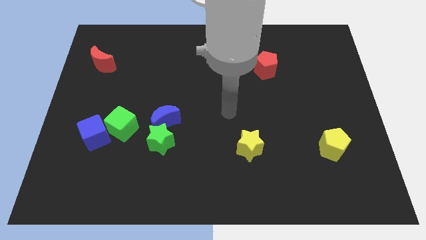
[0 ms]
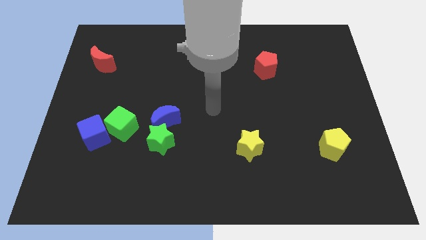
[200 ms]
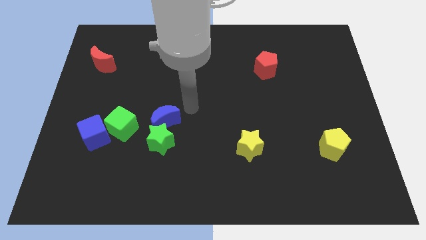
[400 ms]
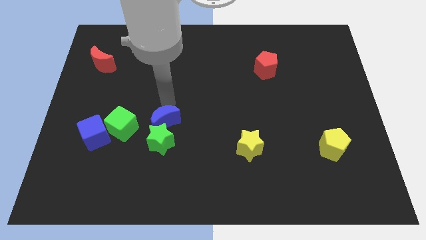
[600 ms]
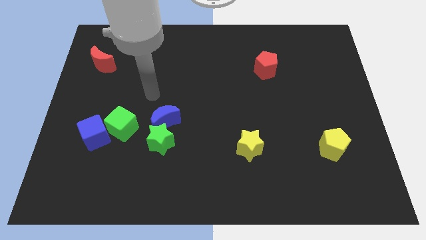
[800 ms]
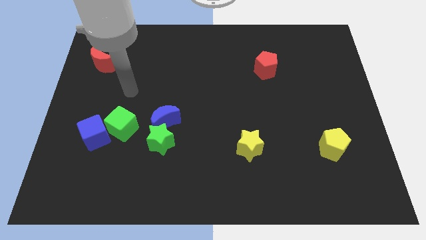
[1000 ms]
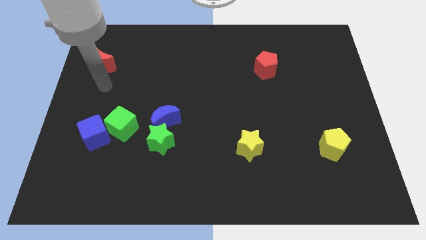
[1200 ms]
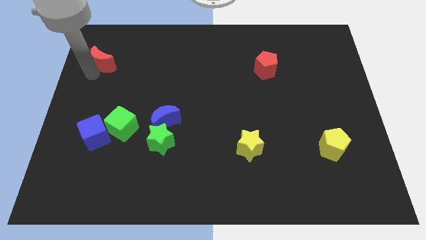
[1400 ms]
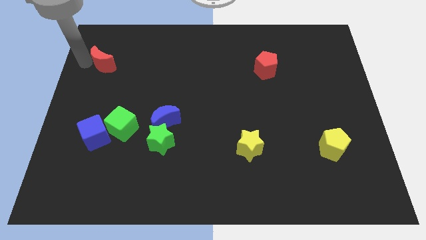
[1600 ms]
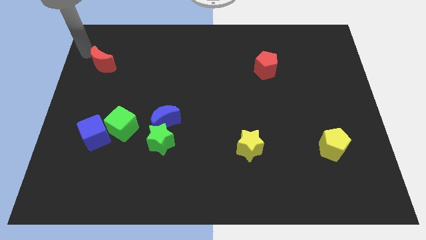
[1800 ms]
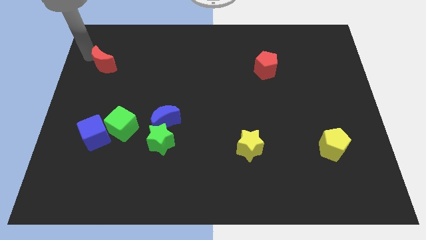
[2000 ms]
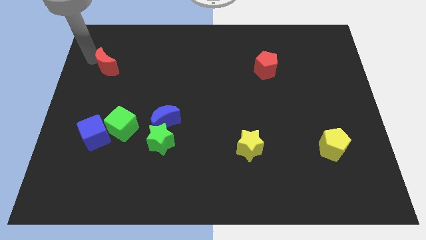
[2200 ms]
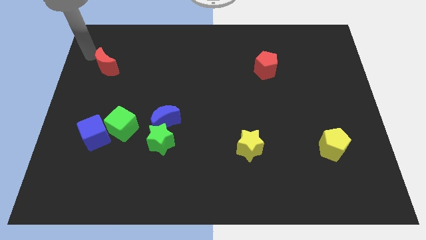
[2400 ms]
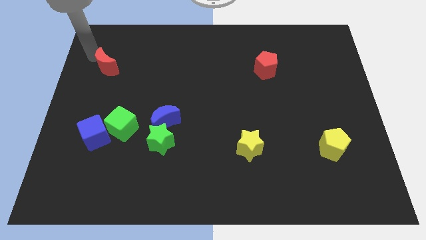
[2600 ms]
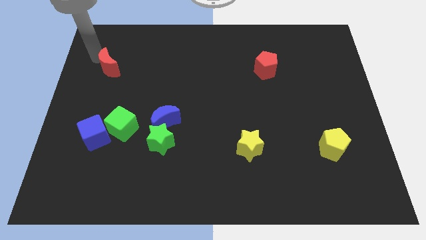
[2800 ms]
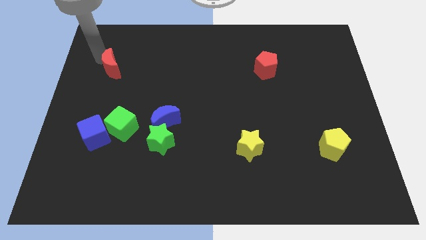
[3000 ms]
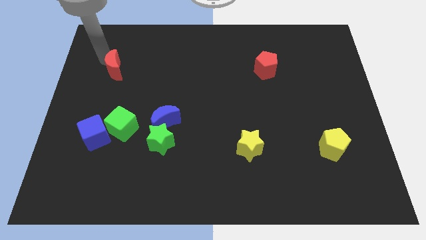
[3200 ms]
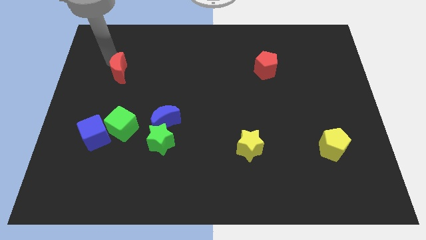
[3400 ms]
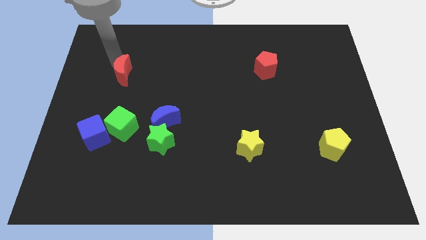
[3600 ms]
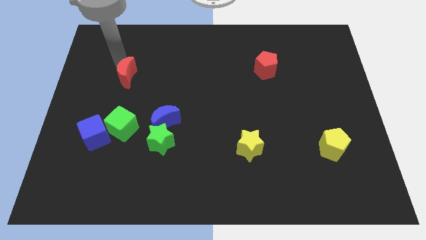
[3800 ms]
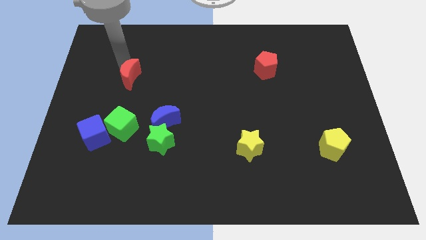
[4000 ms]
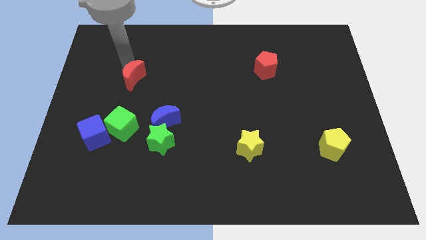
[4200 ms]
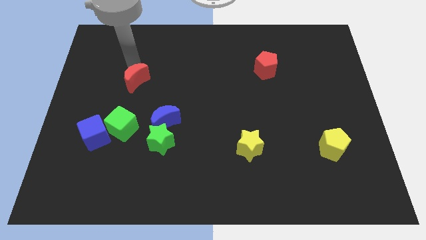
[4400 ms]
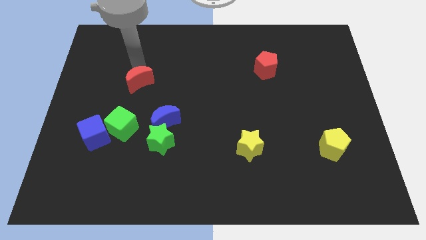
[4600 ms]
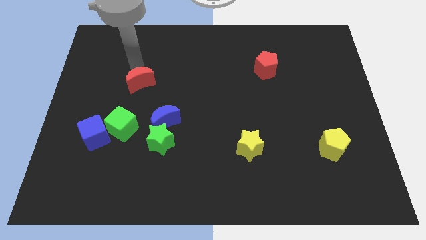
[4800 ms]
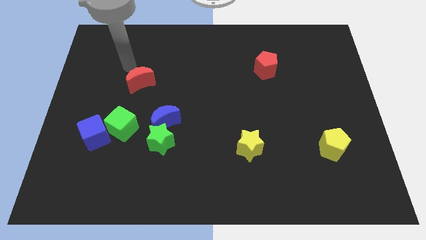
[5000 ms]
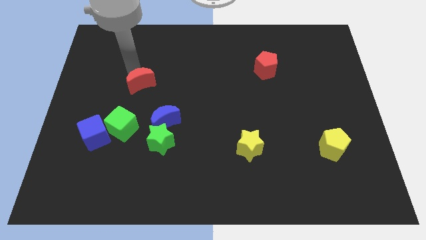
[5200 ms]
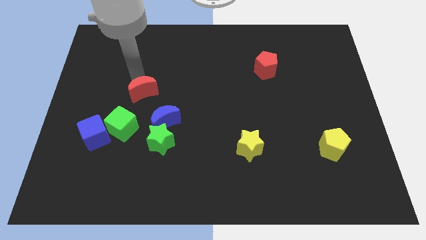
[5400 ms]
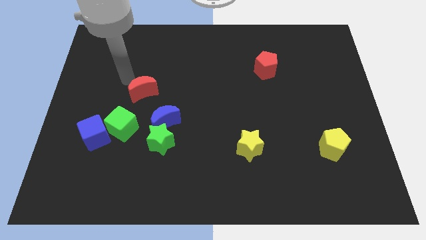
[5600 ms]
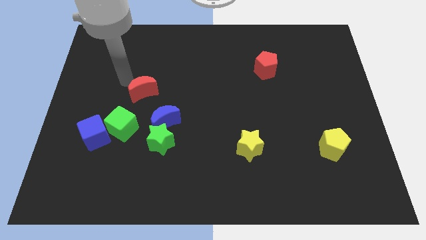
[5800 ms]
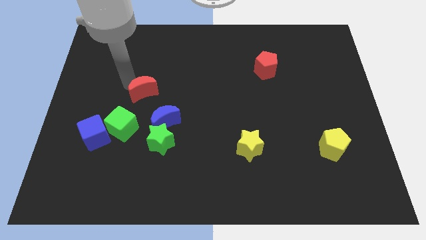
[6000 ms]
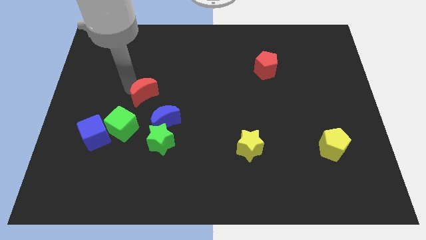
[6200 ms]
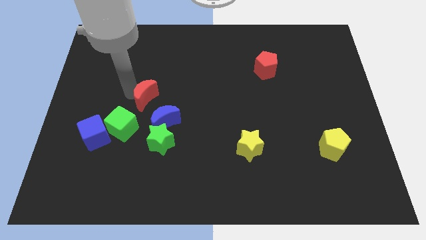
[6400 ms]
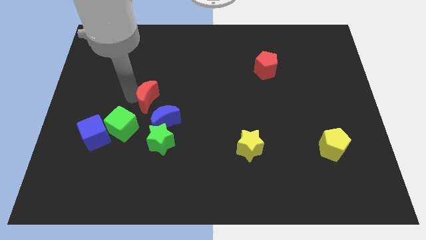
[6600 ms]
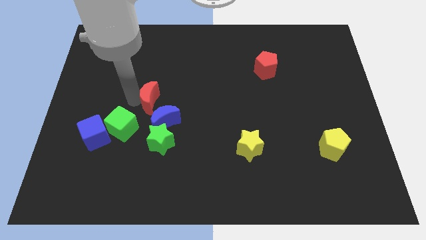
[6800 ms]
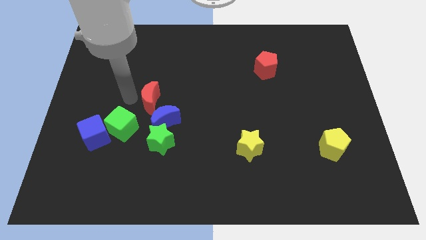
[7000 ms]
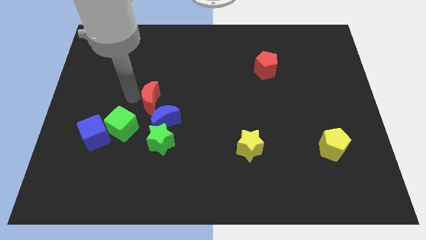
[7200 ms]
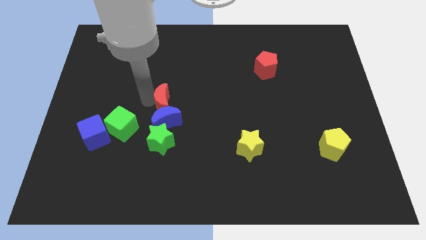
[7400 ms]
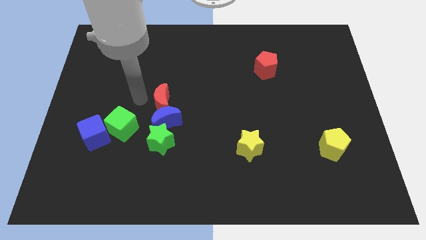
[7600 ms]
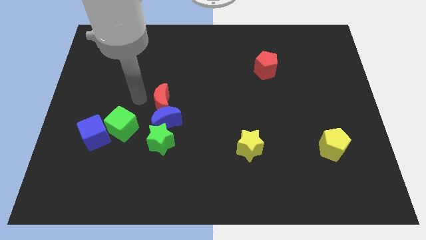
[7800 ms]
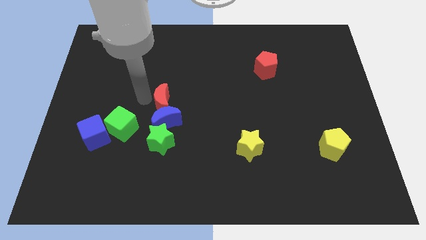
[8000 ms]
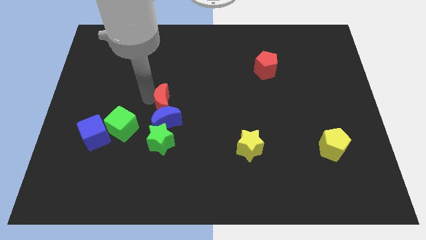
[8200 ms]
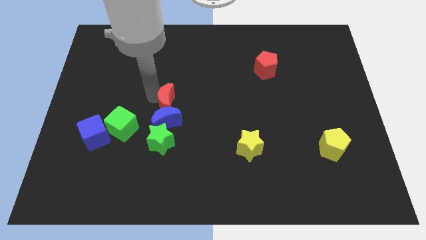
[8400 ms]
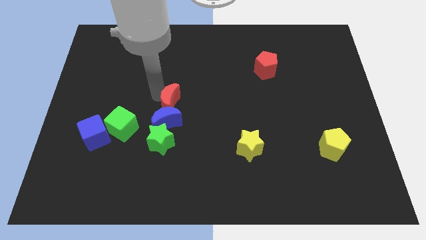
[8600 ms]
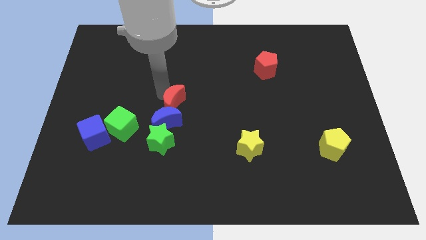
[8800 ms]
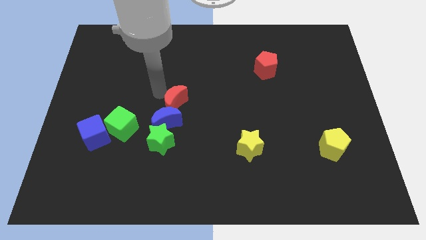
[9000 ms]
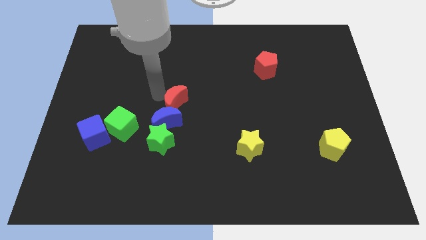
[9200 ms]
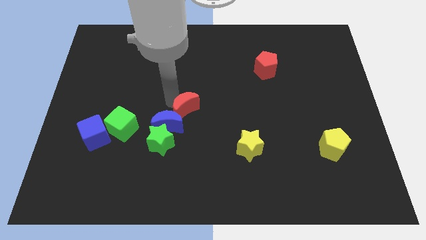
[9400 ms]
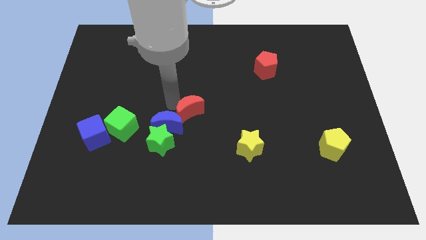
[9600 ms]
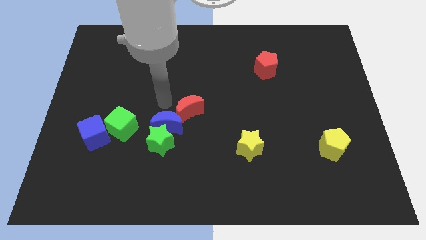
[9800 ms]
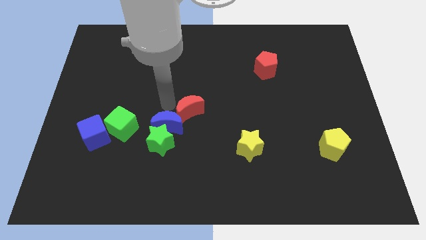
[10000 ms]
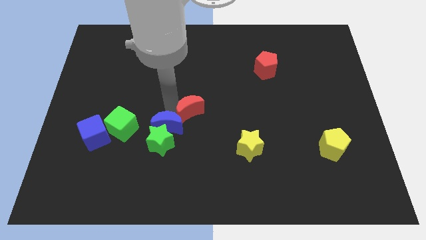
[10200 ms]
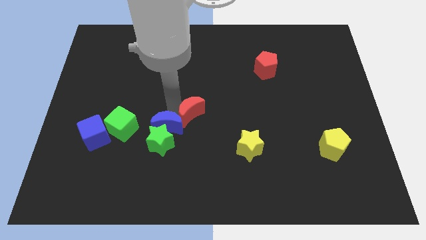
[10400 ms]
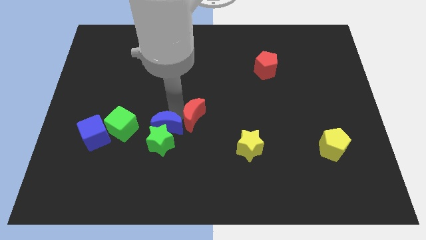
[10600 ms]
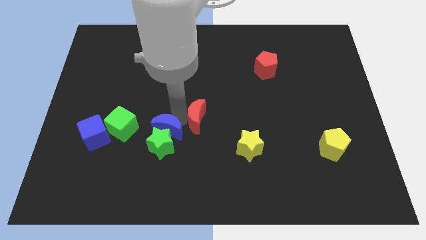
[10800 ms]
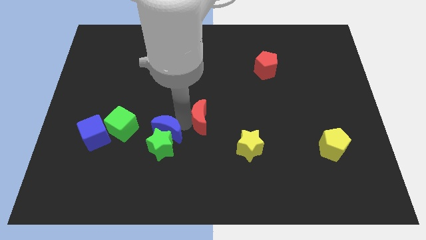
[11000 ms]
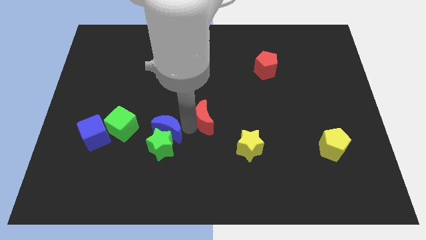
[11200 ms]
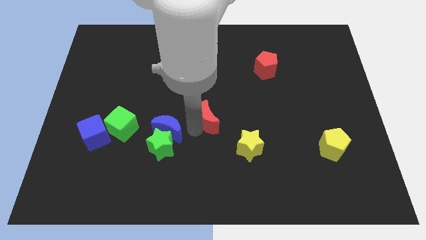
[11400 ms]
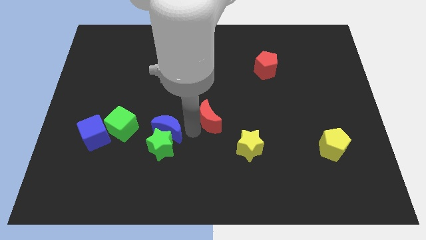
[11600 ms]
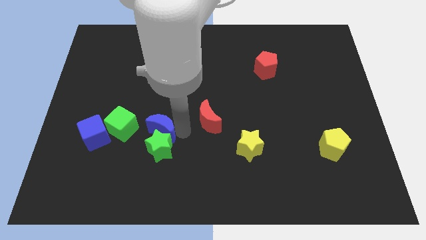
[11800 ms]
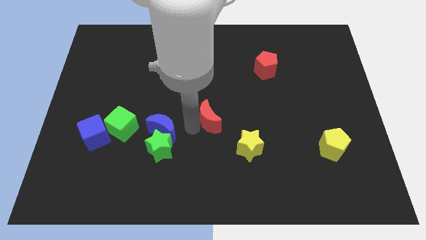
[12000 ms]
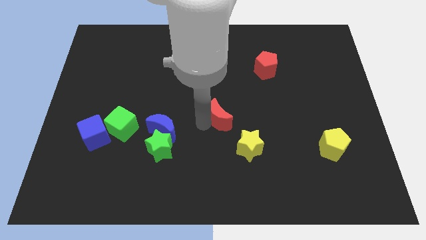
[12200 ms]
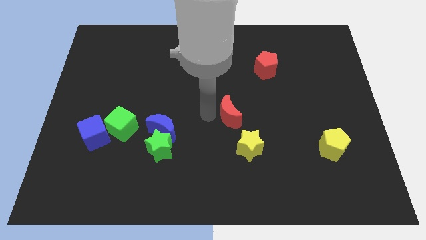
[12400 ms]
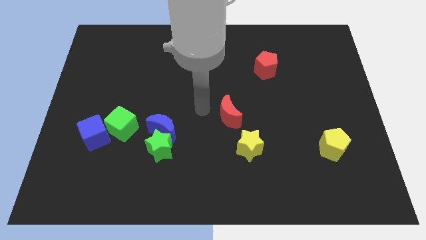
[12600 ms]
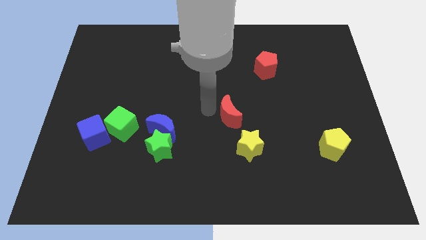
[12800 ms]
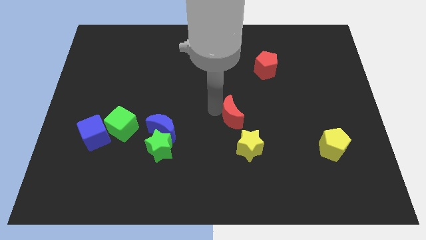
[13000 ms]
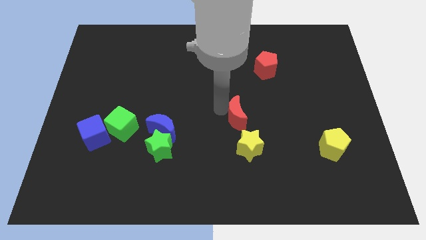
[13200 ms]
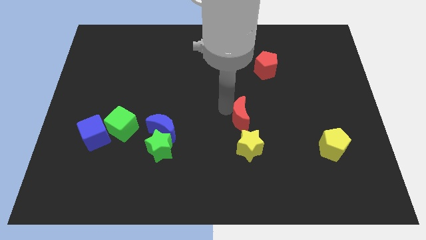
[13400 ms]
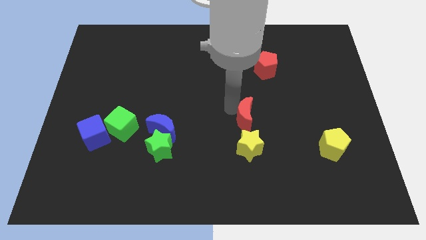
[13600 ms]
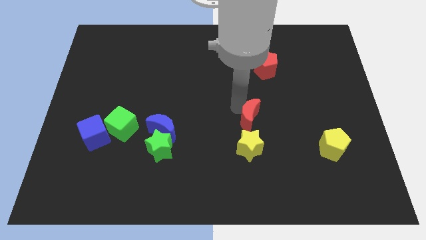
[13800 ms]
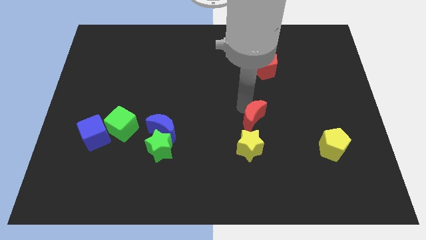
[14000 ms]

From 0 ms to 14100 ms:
push the red moon to the top right side of the yellow star
